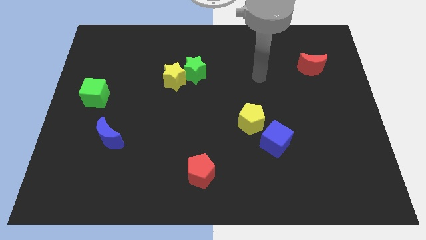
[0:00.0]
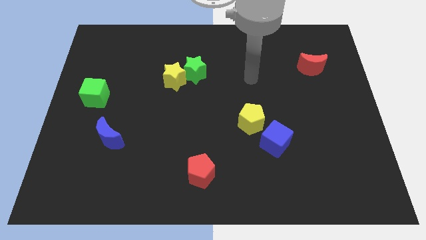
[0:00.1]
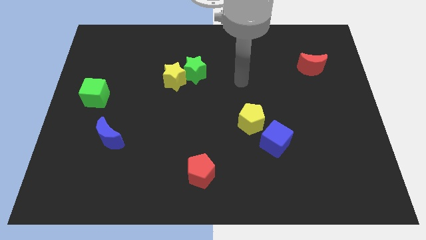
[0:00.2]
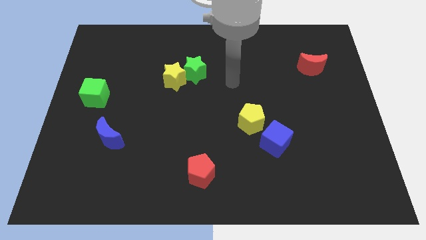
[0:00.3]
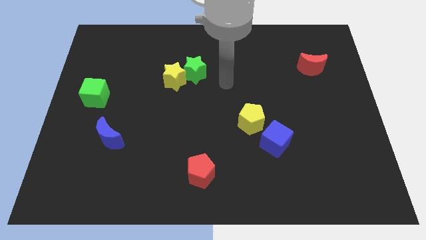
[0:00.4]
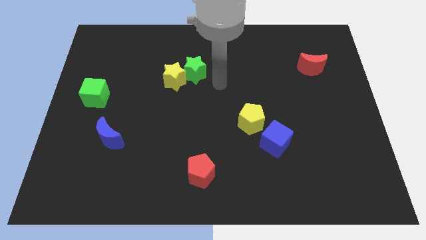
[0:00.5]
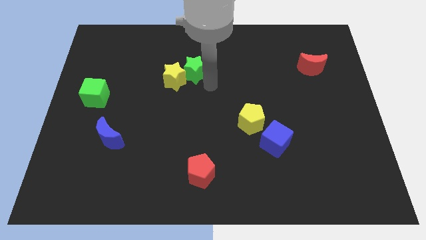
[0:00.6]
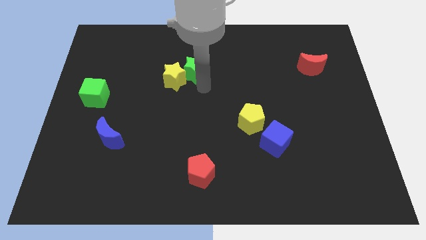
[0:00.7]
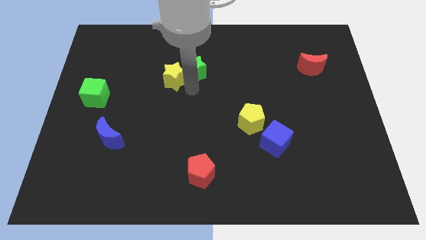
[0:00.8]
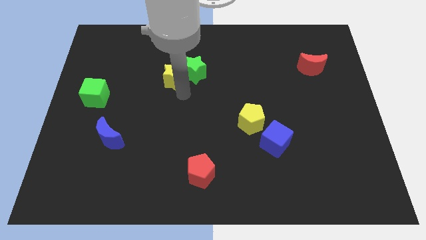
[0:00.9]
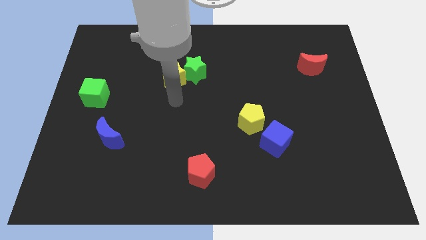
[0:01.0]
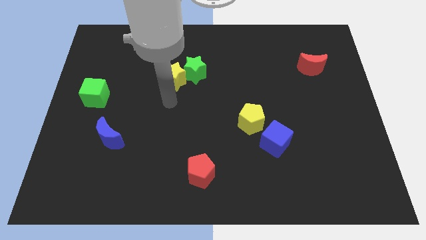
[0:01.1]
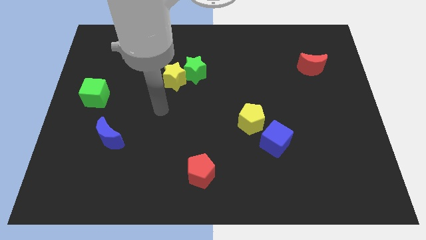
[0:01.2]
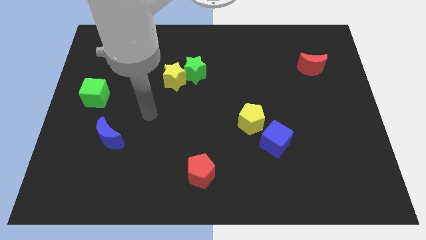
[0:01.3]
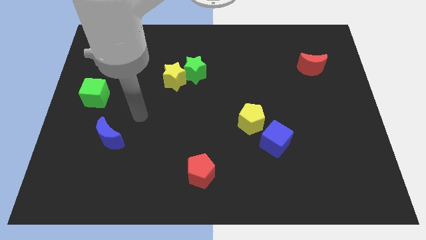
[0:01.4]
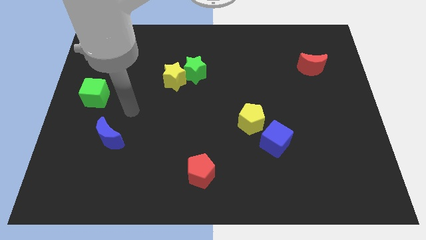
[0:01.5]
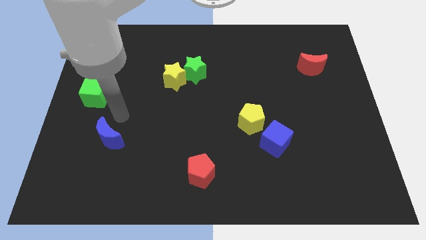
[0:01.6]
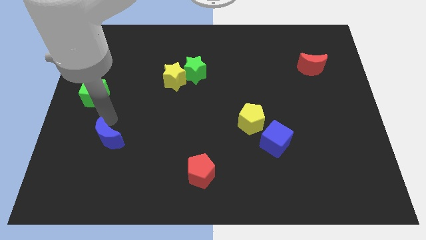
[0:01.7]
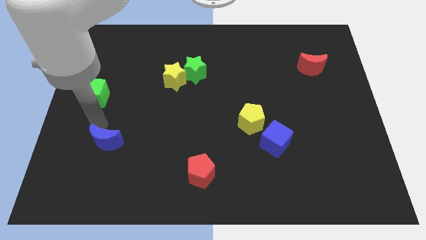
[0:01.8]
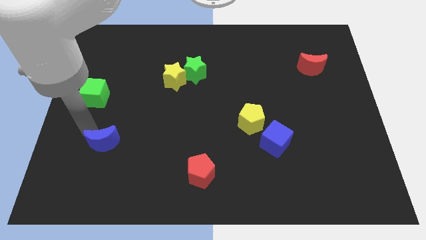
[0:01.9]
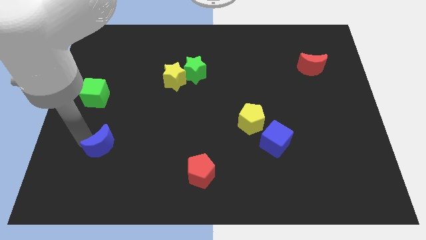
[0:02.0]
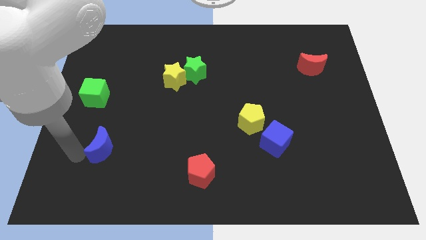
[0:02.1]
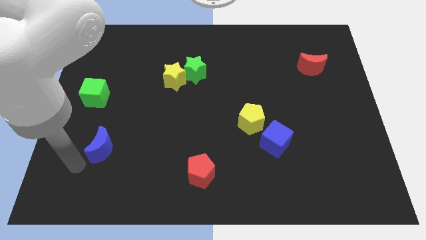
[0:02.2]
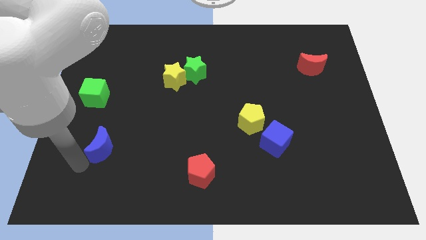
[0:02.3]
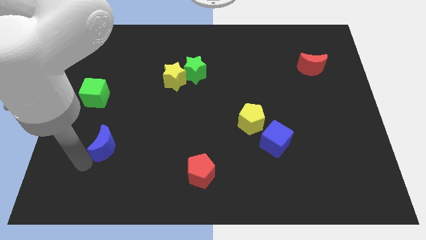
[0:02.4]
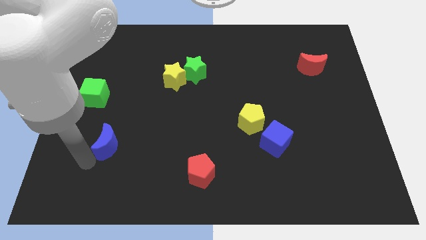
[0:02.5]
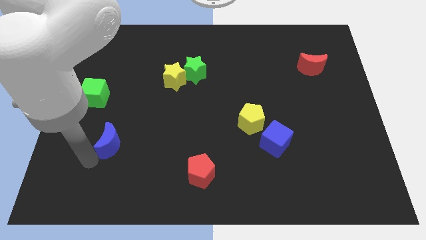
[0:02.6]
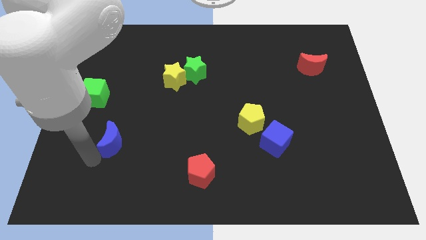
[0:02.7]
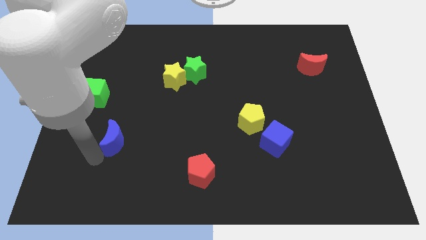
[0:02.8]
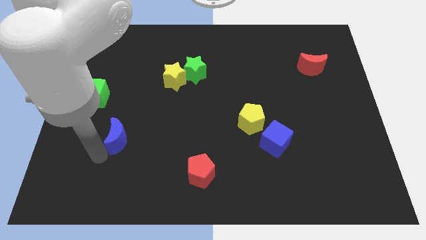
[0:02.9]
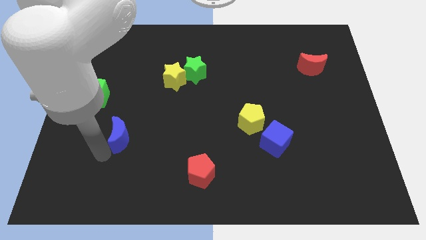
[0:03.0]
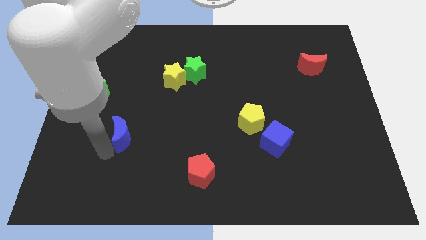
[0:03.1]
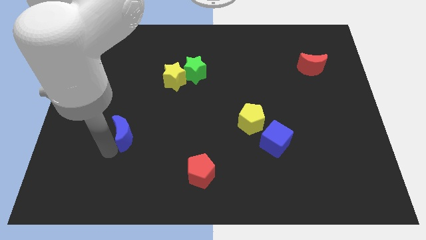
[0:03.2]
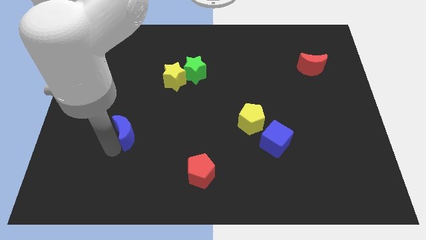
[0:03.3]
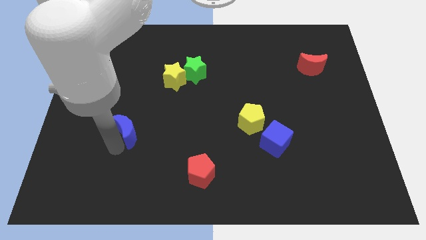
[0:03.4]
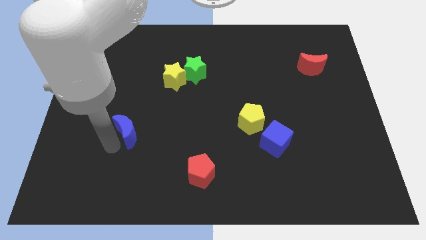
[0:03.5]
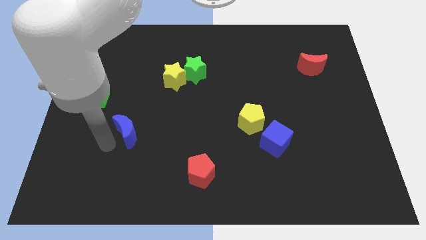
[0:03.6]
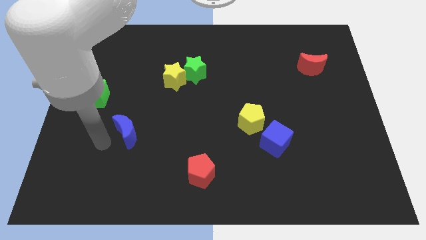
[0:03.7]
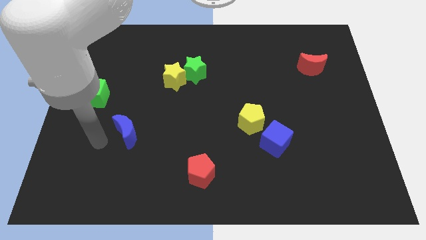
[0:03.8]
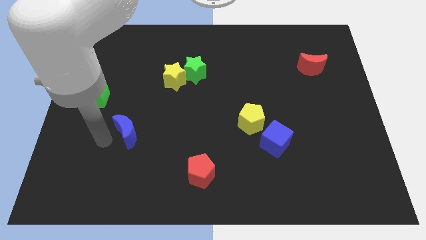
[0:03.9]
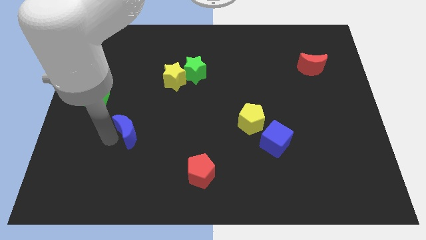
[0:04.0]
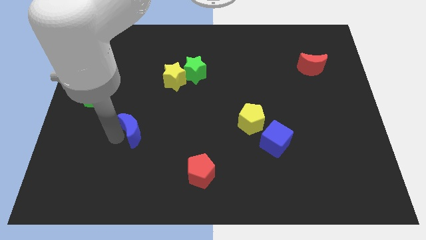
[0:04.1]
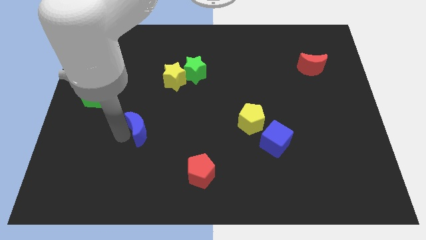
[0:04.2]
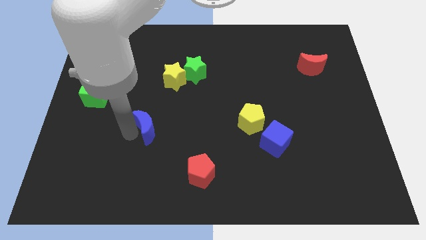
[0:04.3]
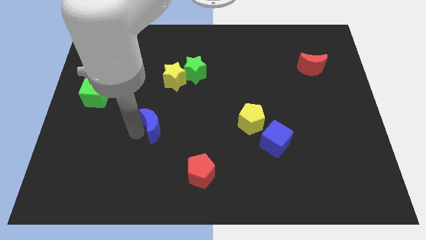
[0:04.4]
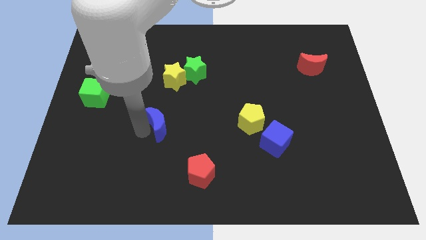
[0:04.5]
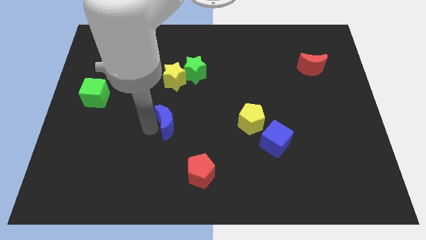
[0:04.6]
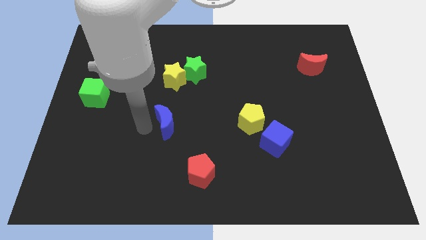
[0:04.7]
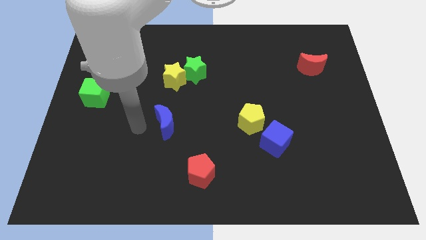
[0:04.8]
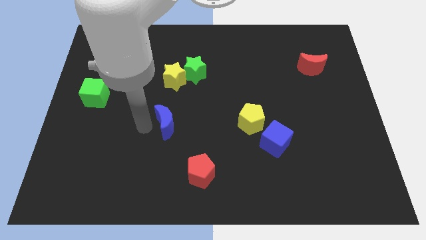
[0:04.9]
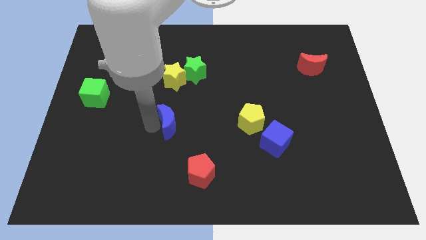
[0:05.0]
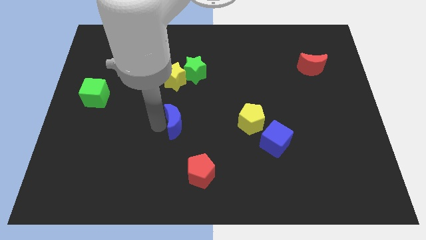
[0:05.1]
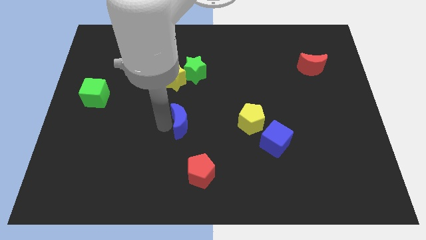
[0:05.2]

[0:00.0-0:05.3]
slide the blue moon to the left side of the yellow pentagon

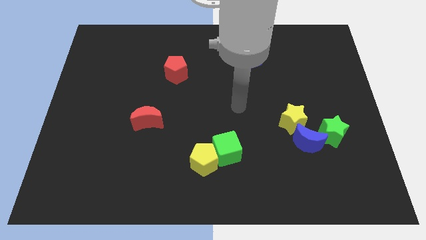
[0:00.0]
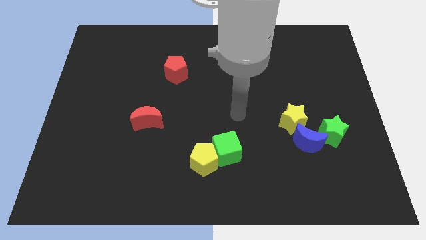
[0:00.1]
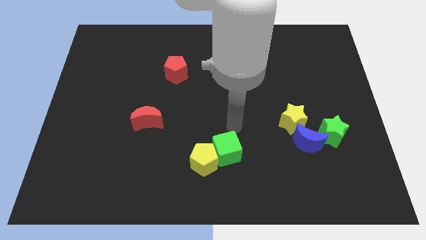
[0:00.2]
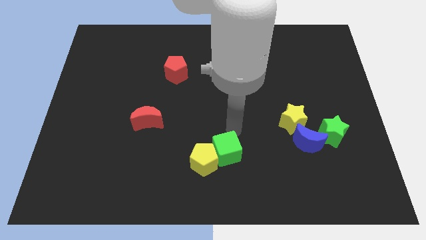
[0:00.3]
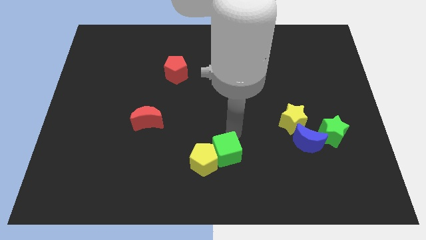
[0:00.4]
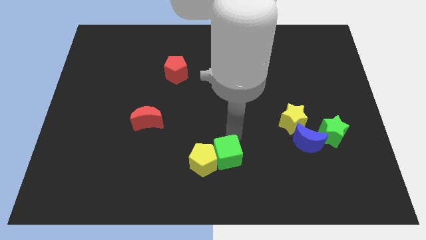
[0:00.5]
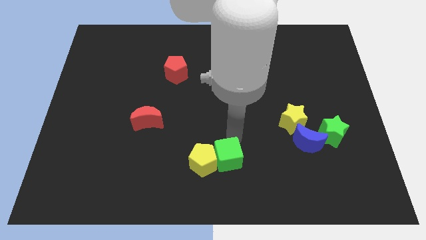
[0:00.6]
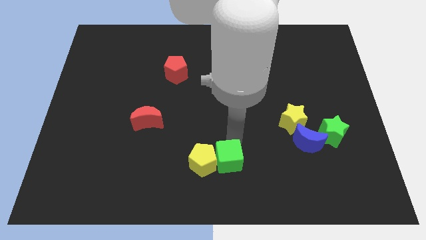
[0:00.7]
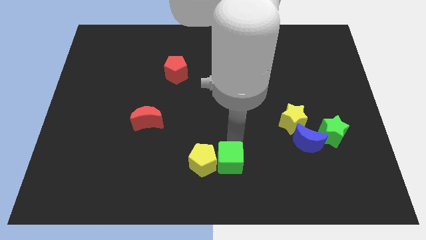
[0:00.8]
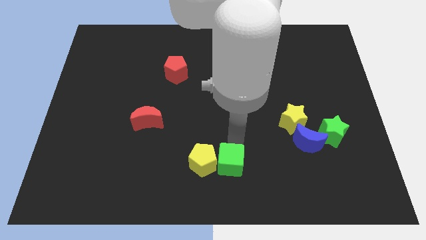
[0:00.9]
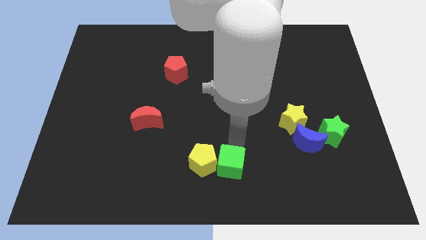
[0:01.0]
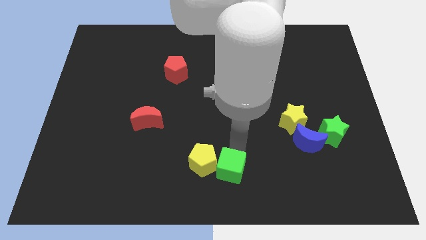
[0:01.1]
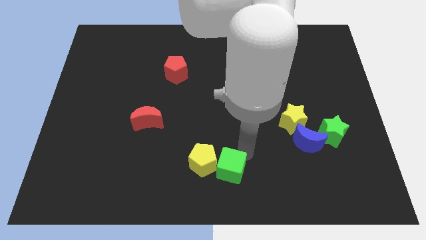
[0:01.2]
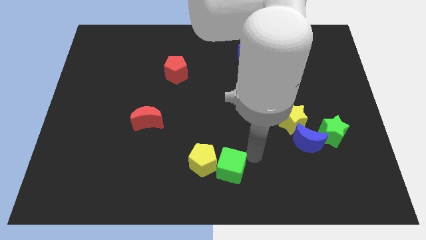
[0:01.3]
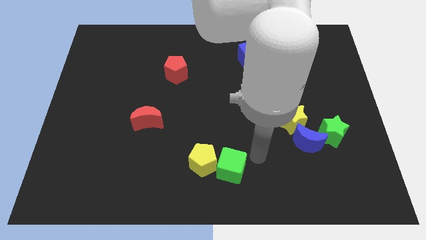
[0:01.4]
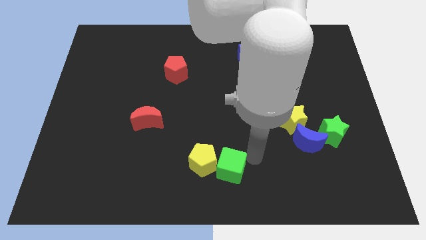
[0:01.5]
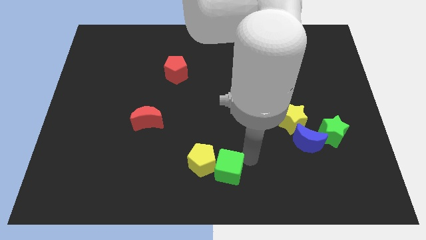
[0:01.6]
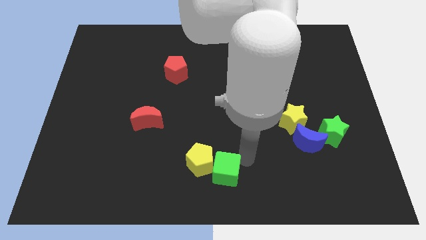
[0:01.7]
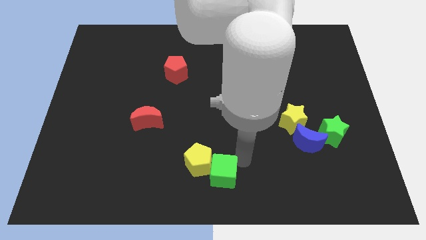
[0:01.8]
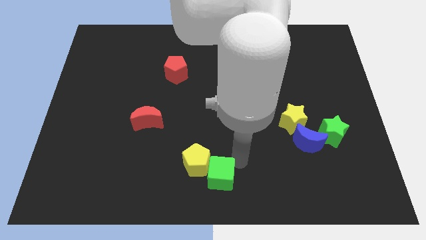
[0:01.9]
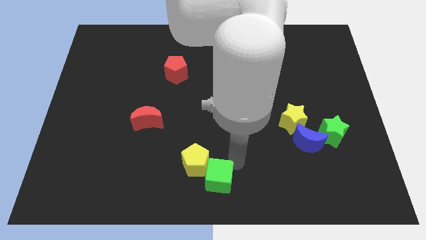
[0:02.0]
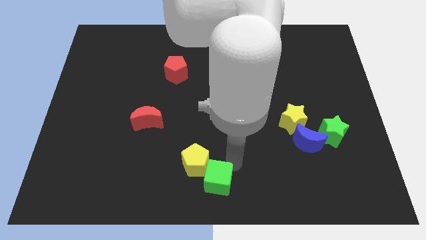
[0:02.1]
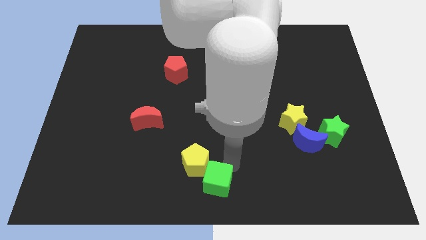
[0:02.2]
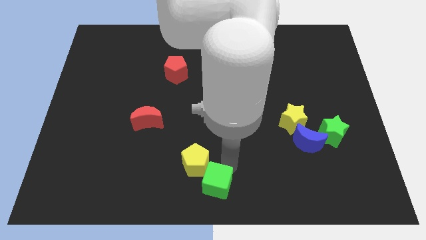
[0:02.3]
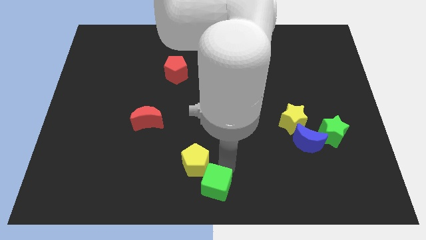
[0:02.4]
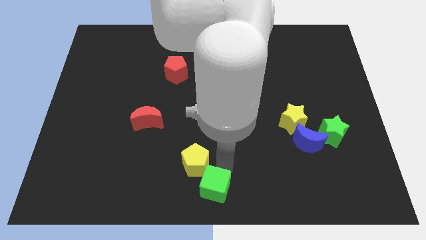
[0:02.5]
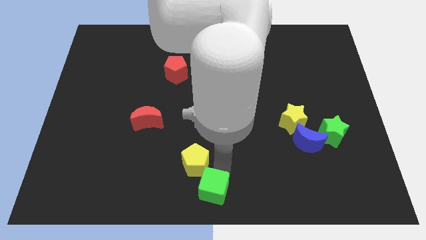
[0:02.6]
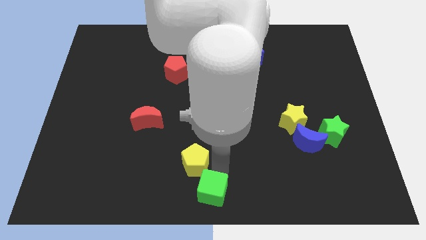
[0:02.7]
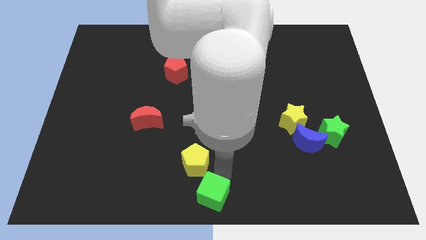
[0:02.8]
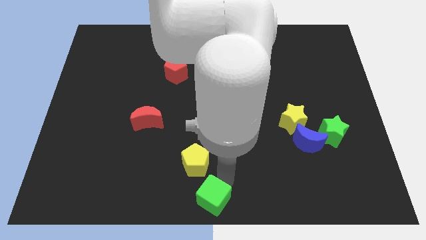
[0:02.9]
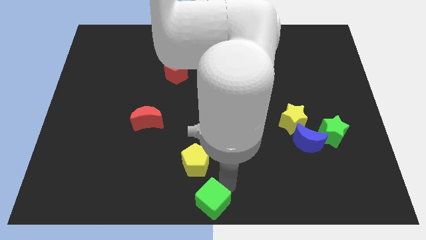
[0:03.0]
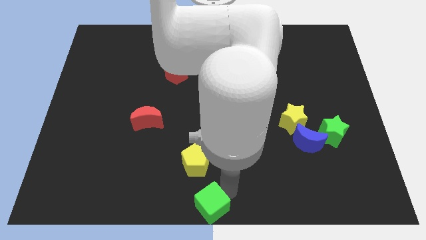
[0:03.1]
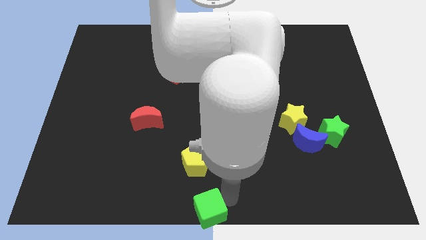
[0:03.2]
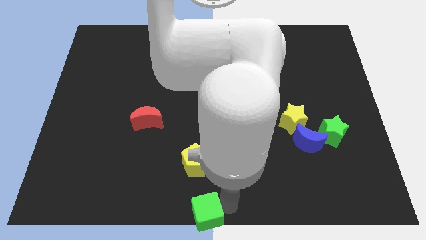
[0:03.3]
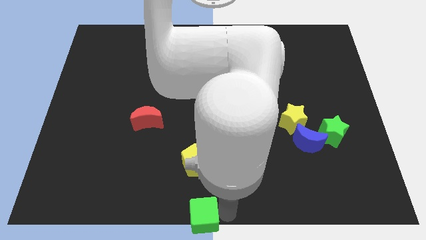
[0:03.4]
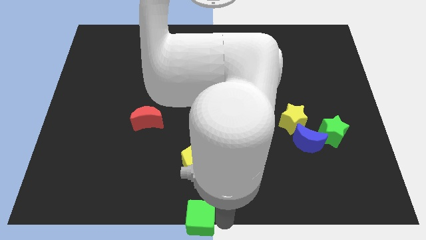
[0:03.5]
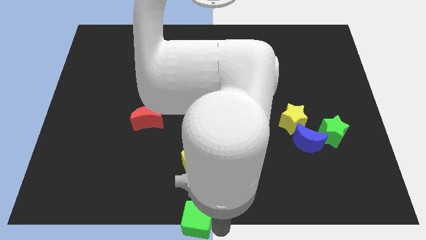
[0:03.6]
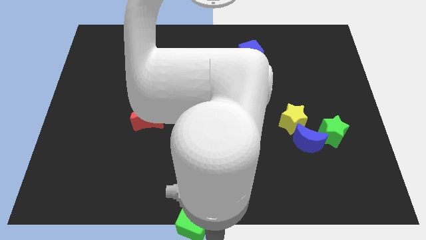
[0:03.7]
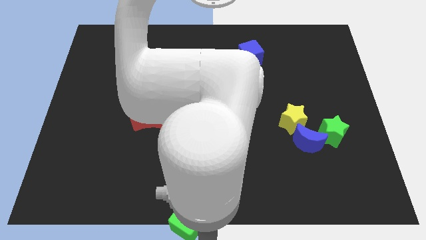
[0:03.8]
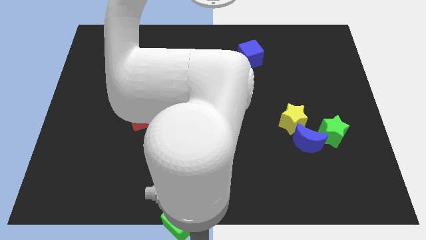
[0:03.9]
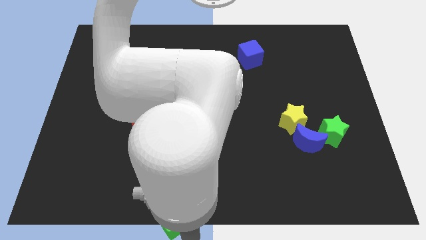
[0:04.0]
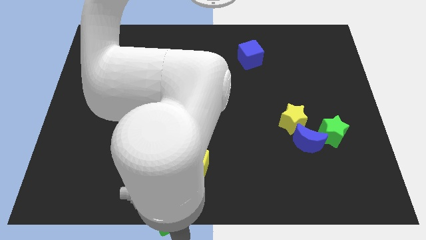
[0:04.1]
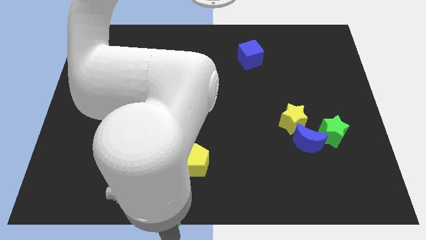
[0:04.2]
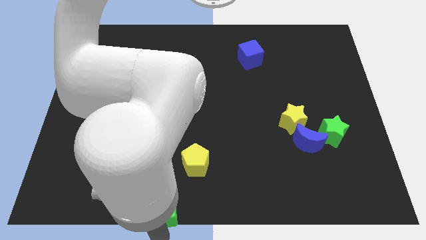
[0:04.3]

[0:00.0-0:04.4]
move the green cube diagonally down and to the left of the yellow pentagon
